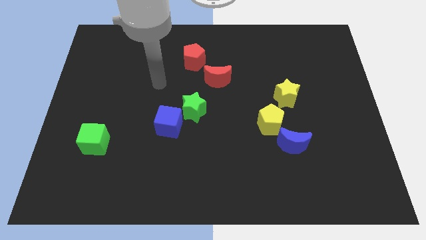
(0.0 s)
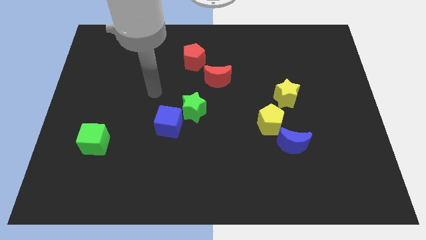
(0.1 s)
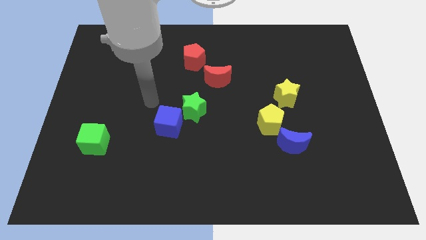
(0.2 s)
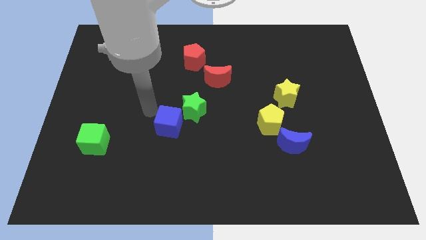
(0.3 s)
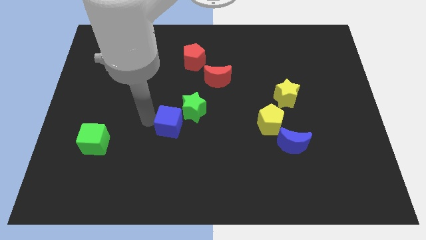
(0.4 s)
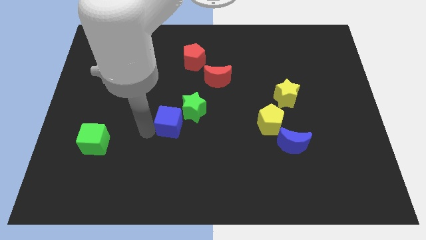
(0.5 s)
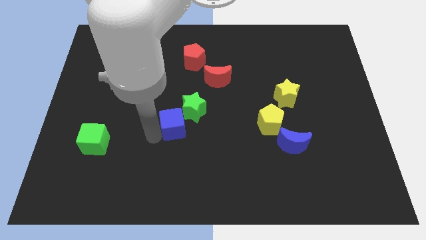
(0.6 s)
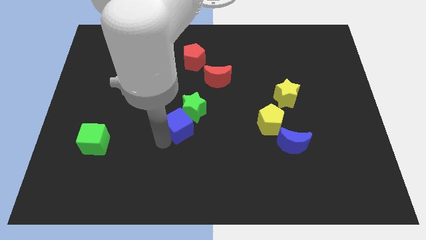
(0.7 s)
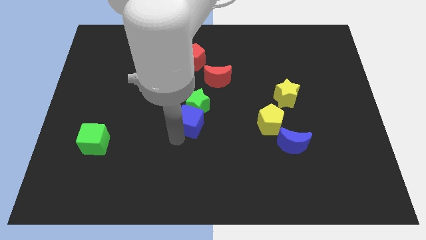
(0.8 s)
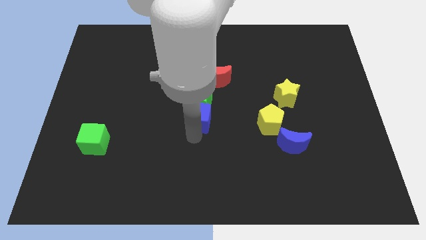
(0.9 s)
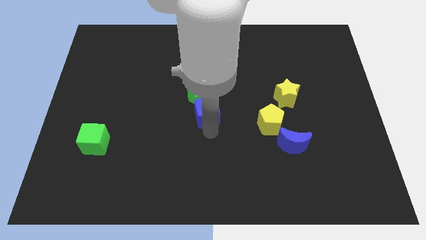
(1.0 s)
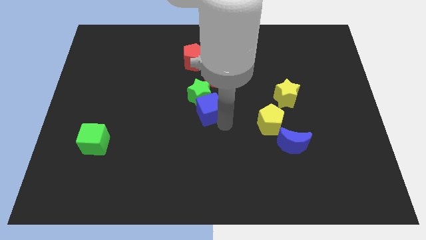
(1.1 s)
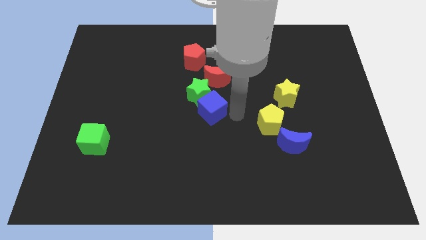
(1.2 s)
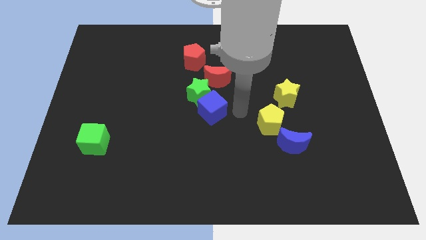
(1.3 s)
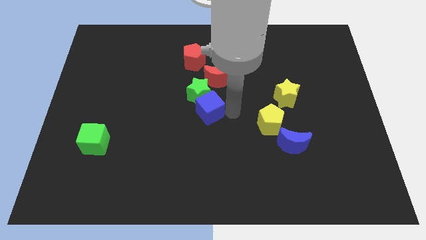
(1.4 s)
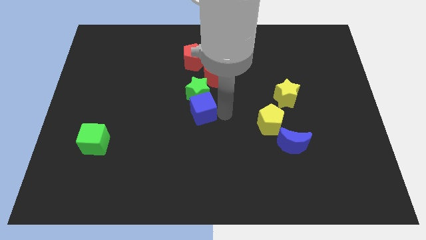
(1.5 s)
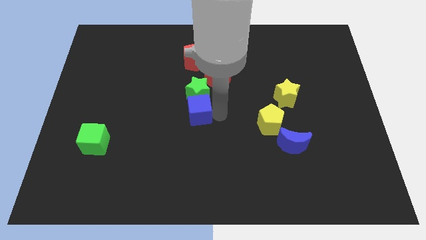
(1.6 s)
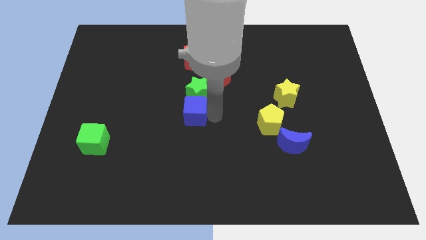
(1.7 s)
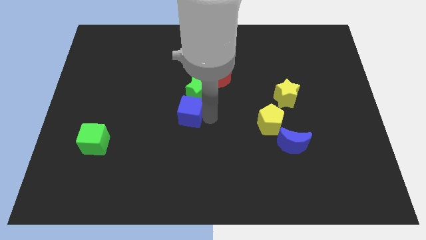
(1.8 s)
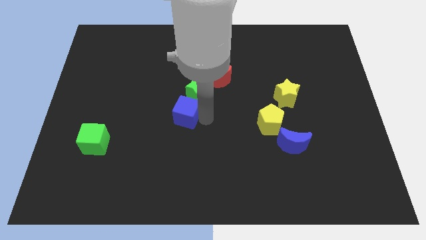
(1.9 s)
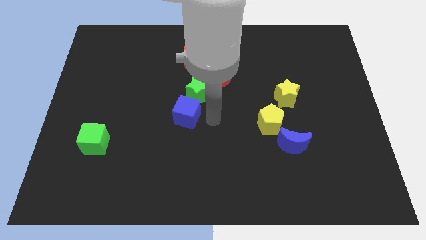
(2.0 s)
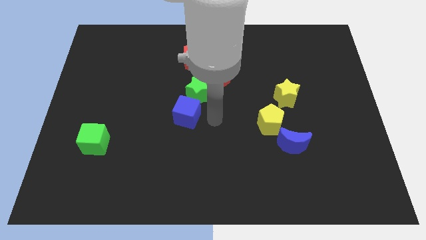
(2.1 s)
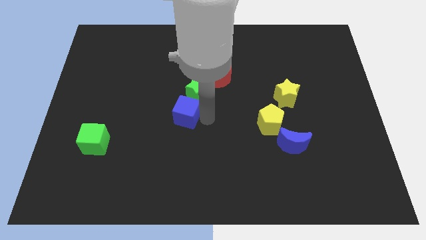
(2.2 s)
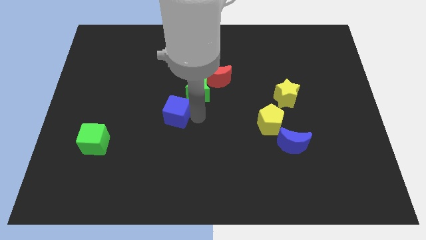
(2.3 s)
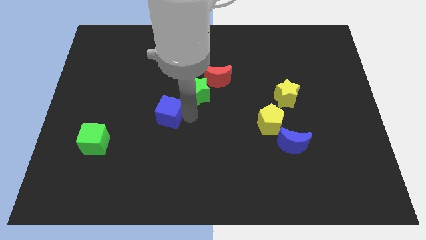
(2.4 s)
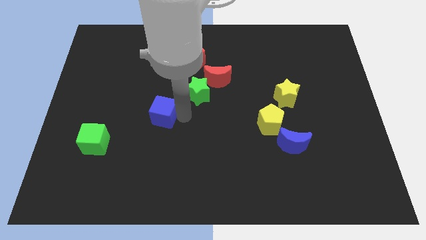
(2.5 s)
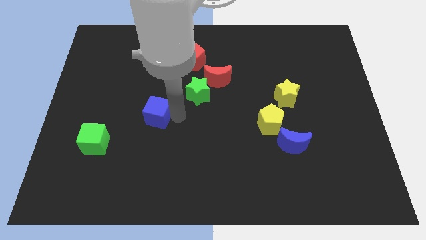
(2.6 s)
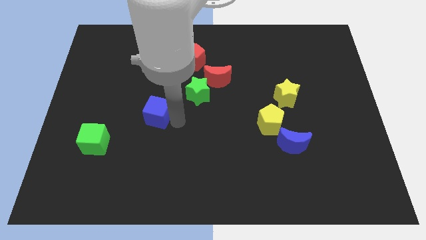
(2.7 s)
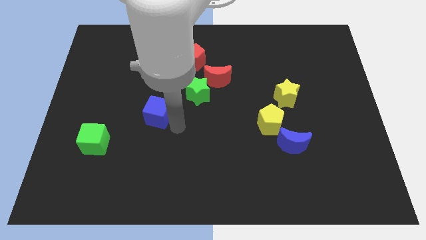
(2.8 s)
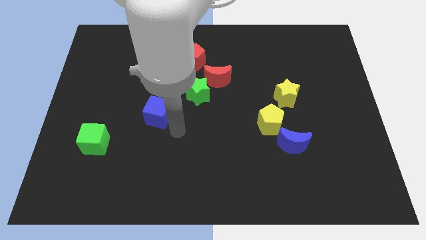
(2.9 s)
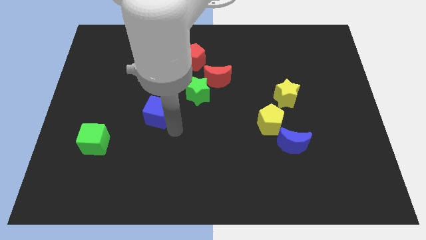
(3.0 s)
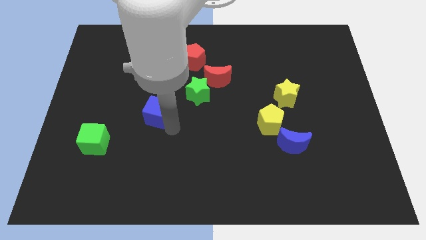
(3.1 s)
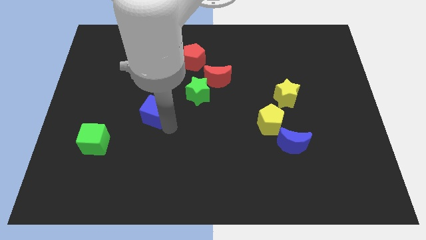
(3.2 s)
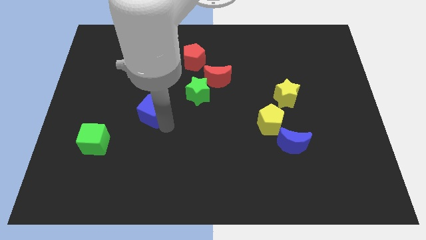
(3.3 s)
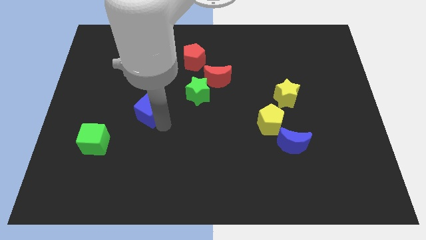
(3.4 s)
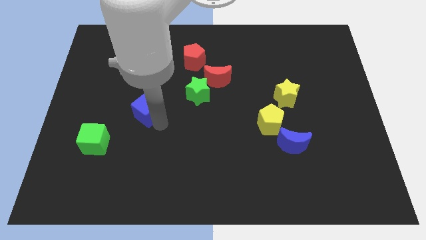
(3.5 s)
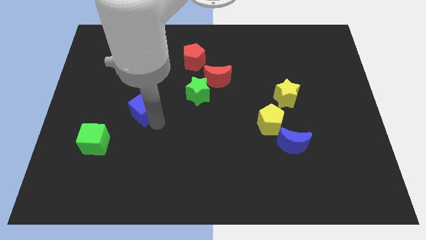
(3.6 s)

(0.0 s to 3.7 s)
slightly slide the blue cube up and then left

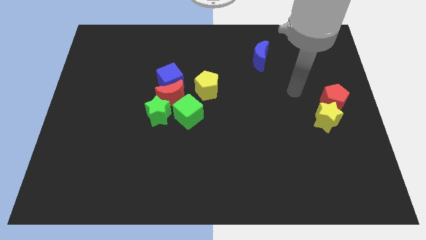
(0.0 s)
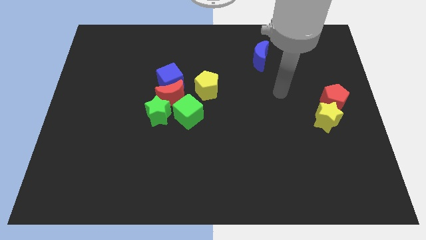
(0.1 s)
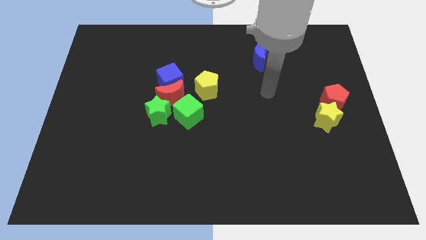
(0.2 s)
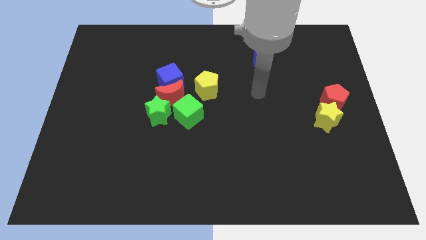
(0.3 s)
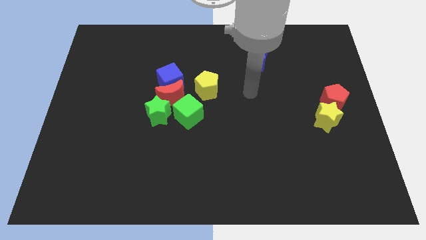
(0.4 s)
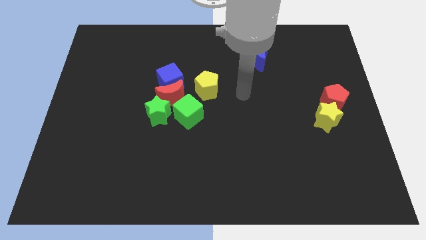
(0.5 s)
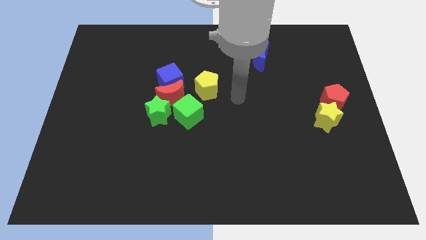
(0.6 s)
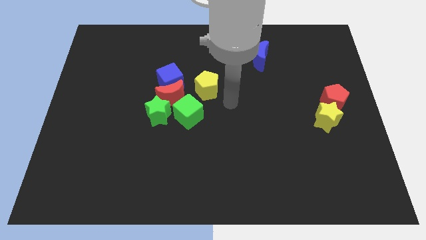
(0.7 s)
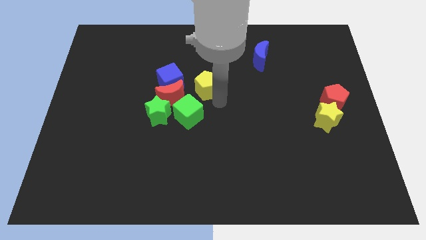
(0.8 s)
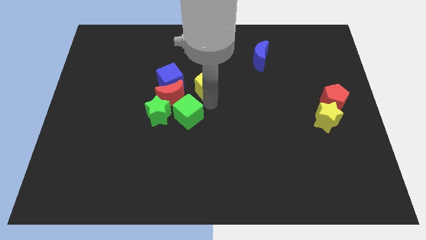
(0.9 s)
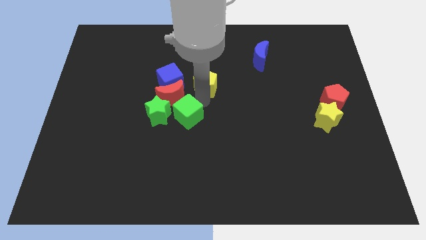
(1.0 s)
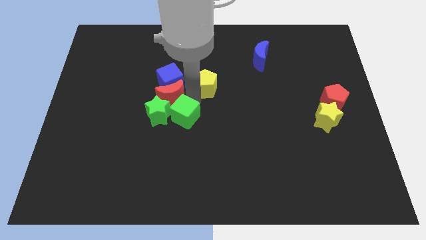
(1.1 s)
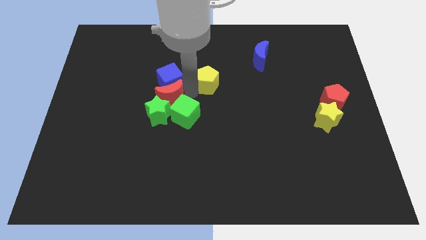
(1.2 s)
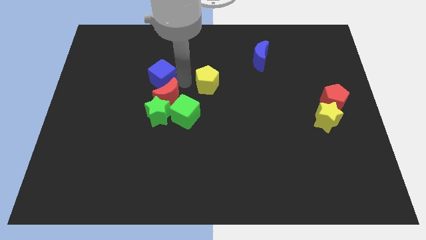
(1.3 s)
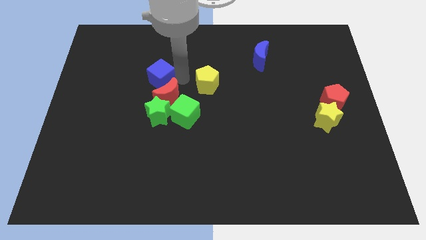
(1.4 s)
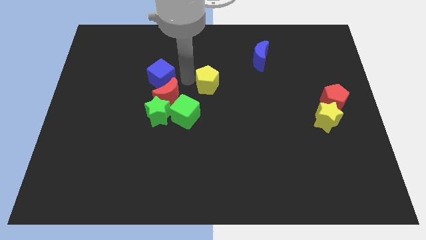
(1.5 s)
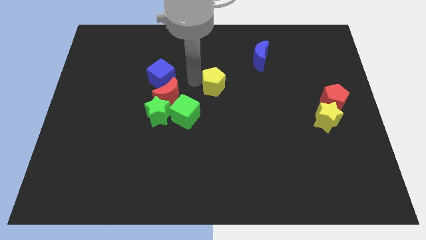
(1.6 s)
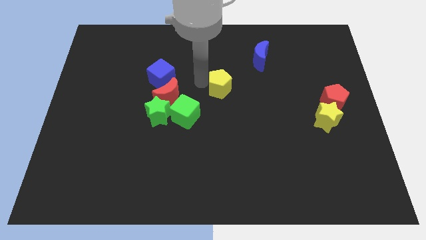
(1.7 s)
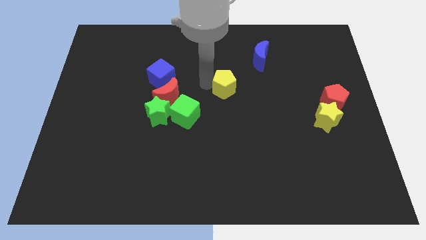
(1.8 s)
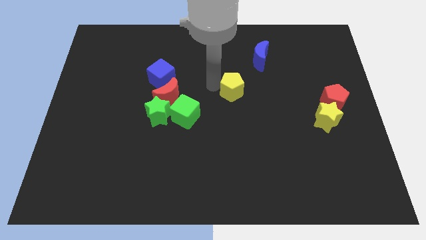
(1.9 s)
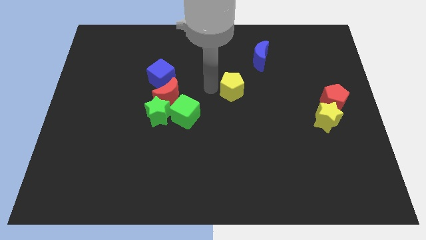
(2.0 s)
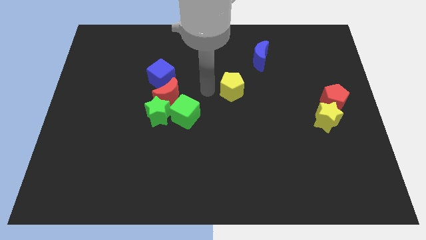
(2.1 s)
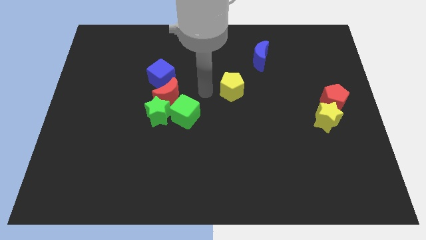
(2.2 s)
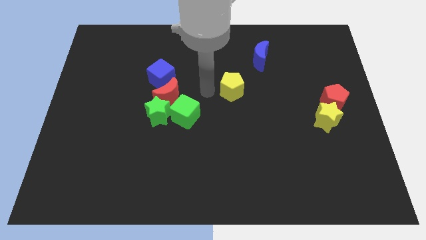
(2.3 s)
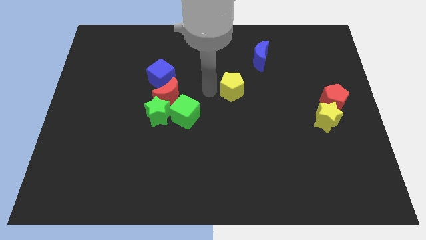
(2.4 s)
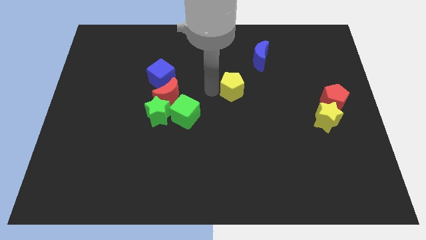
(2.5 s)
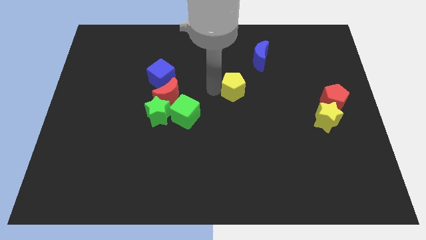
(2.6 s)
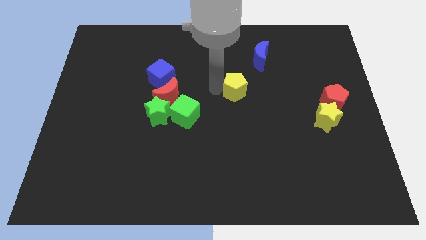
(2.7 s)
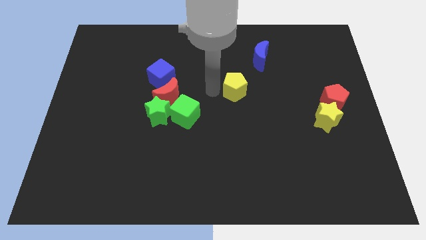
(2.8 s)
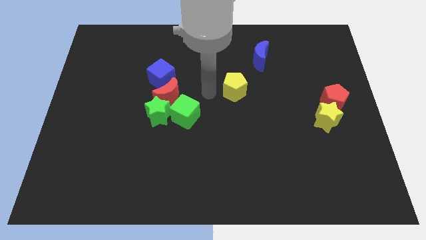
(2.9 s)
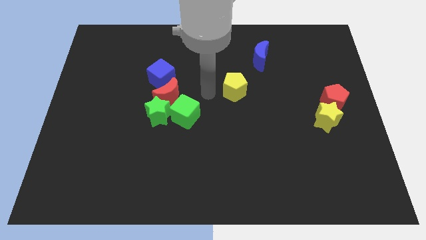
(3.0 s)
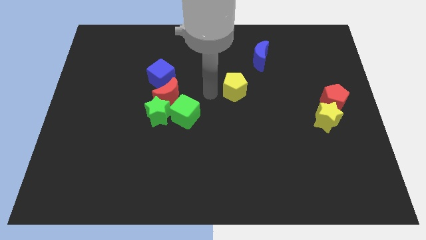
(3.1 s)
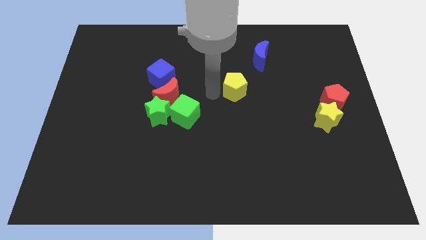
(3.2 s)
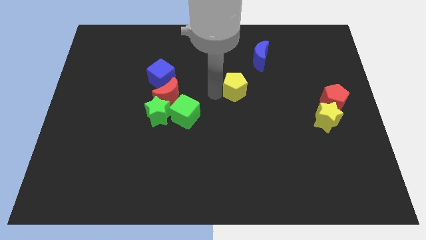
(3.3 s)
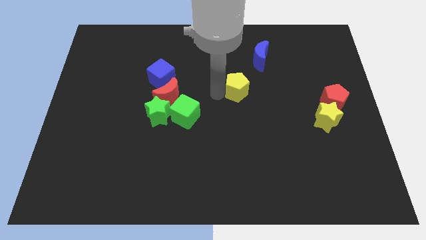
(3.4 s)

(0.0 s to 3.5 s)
slightly push the yellow pentagon right

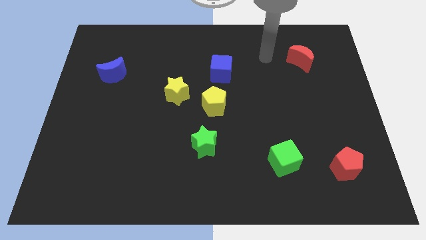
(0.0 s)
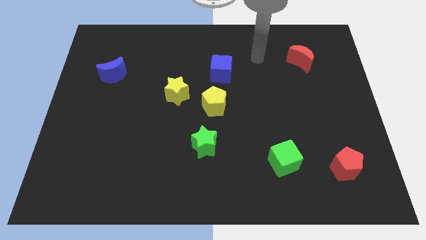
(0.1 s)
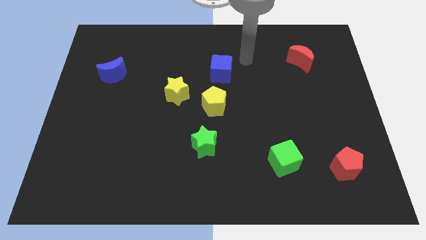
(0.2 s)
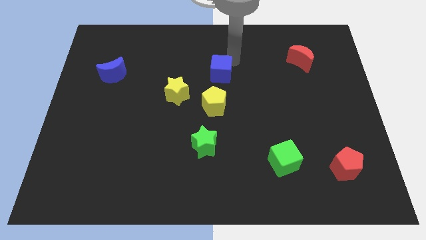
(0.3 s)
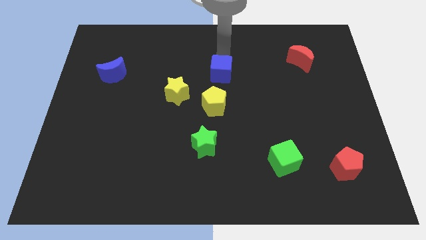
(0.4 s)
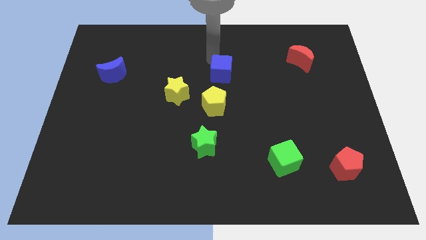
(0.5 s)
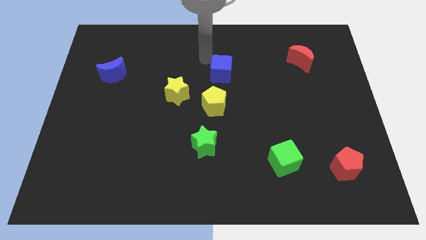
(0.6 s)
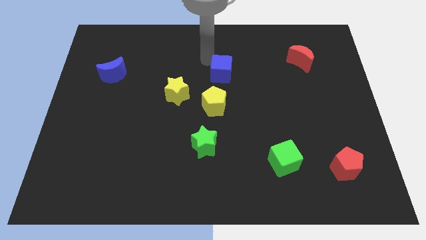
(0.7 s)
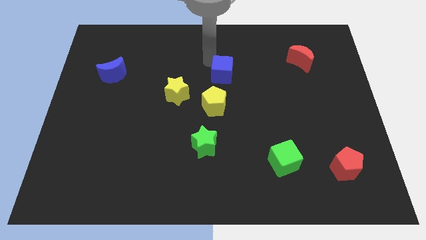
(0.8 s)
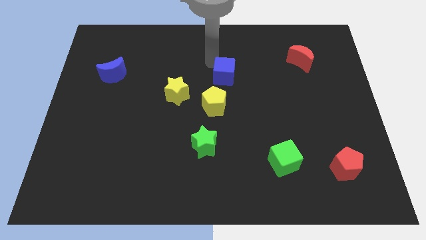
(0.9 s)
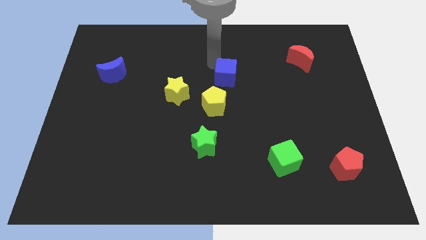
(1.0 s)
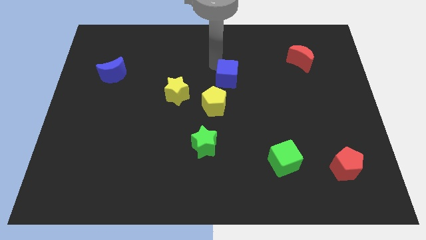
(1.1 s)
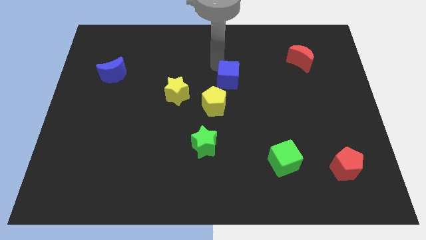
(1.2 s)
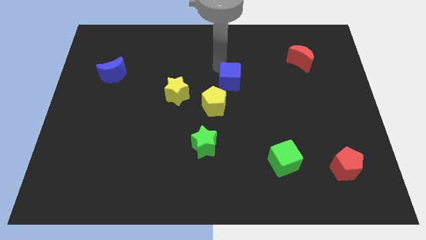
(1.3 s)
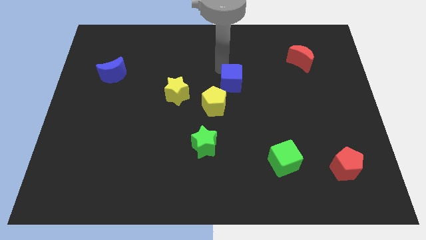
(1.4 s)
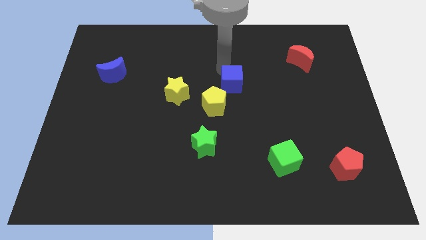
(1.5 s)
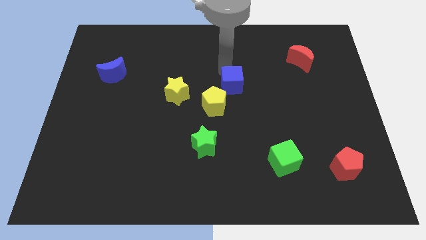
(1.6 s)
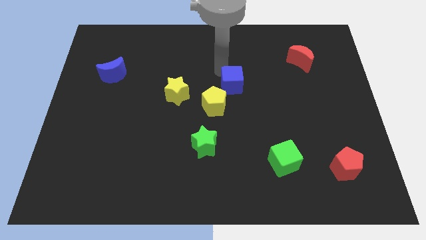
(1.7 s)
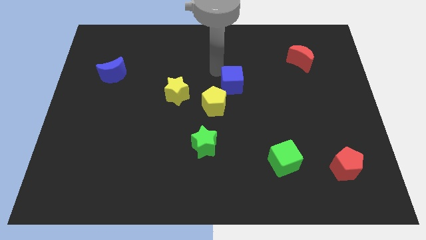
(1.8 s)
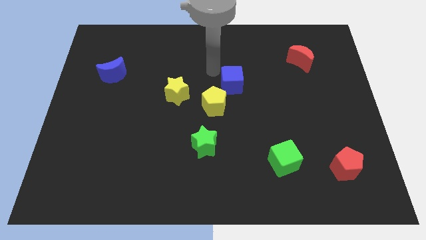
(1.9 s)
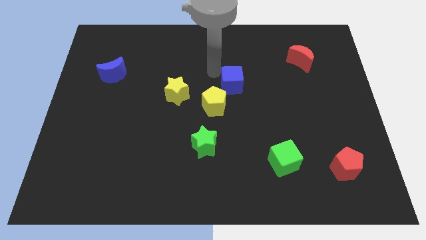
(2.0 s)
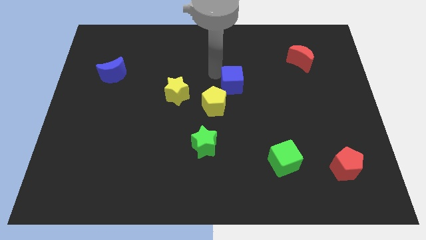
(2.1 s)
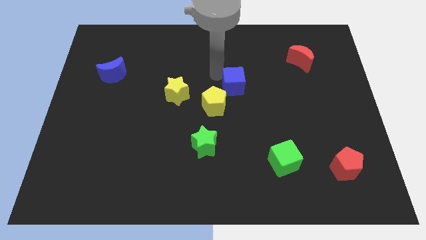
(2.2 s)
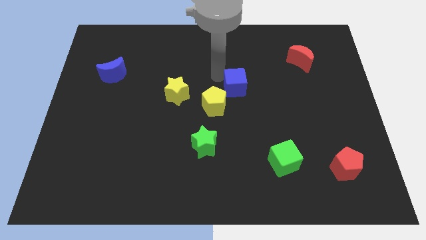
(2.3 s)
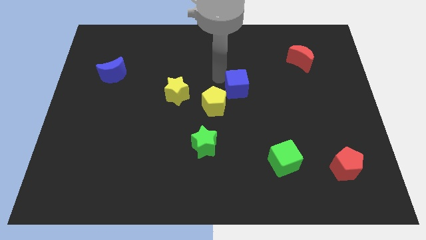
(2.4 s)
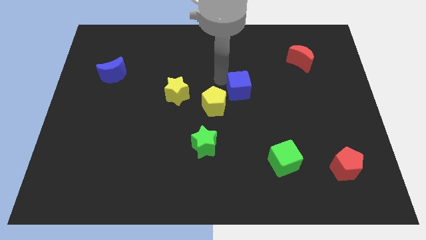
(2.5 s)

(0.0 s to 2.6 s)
push the blue cube somewhat diagonally down and to the right
